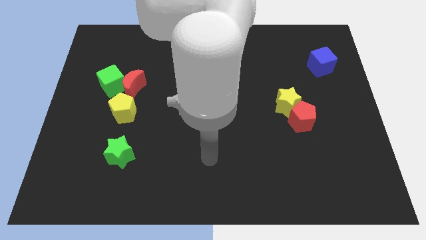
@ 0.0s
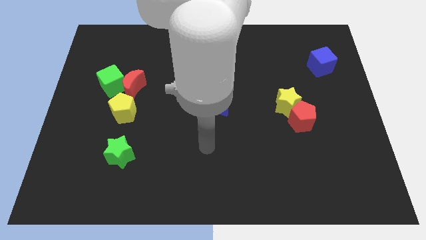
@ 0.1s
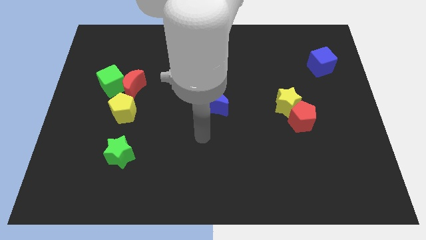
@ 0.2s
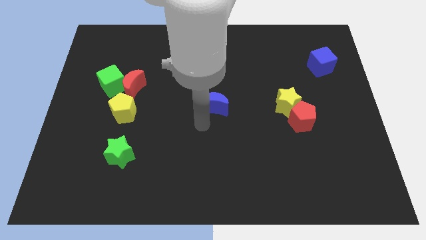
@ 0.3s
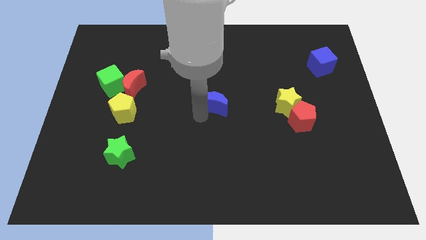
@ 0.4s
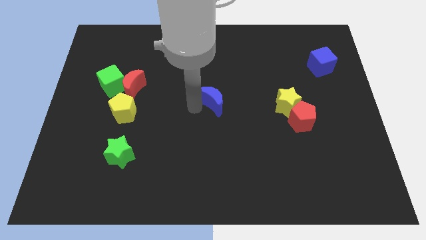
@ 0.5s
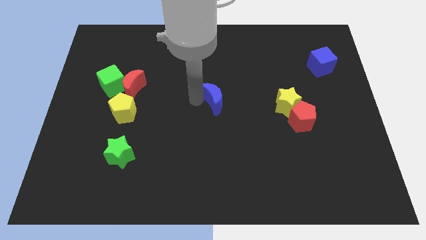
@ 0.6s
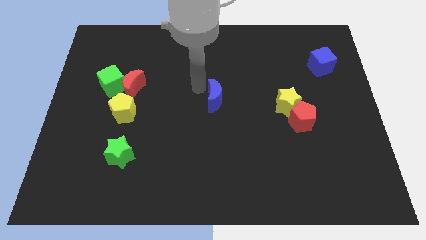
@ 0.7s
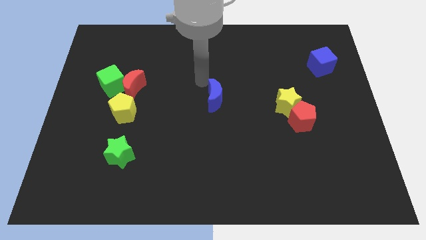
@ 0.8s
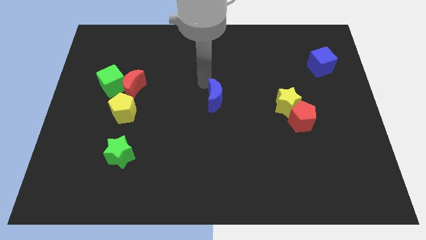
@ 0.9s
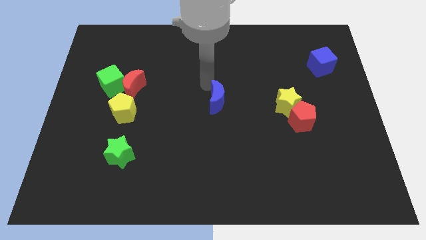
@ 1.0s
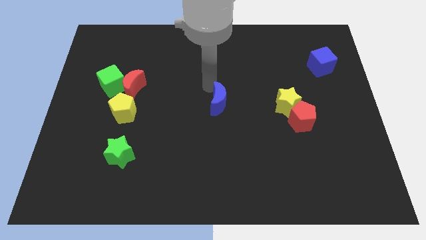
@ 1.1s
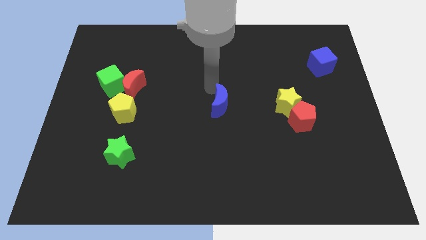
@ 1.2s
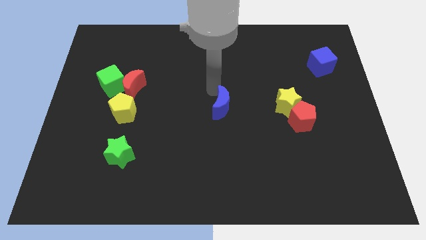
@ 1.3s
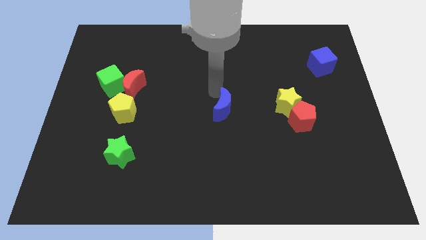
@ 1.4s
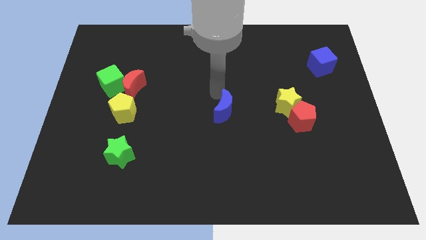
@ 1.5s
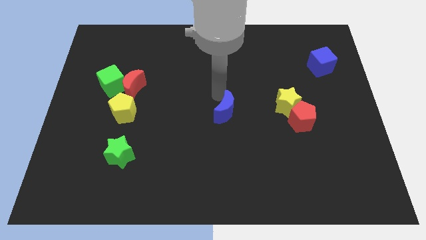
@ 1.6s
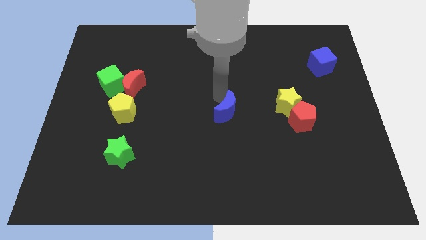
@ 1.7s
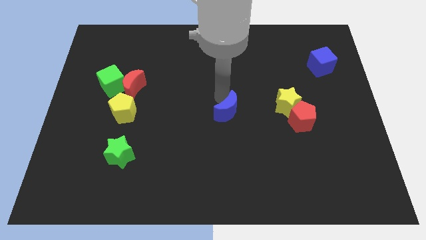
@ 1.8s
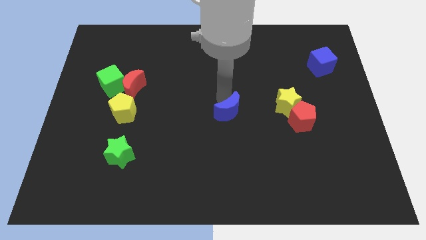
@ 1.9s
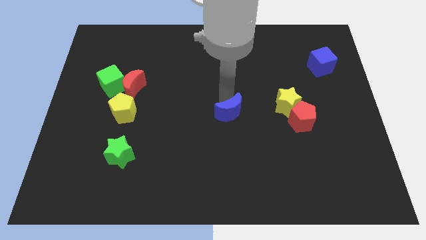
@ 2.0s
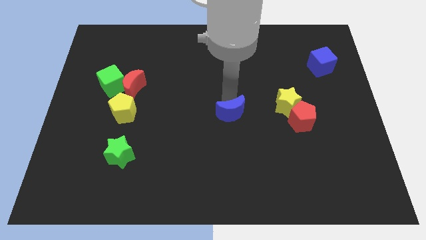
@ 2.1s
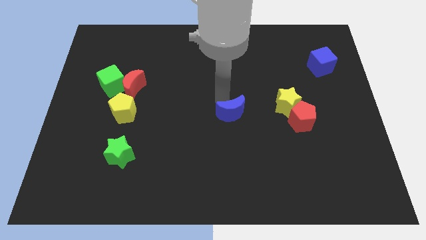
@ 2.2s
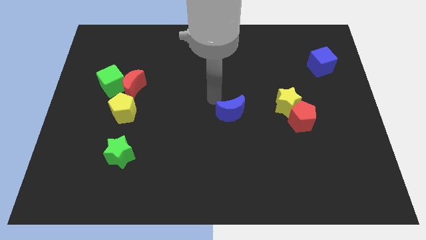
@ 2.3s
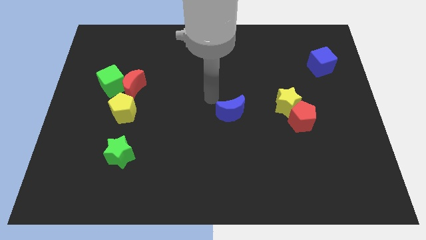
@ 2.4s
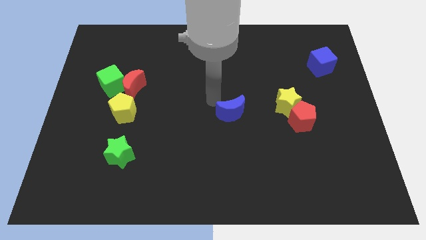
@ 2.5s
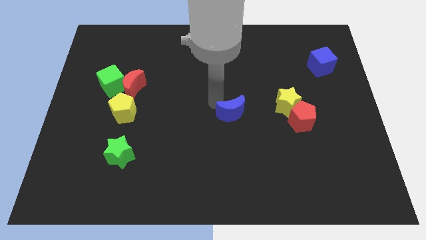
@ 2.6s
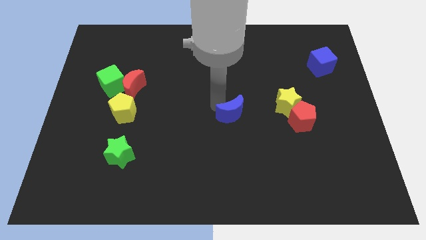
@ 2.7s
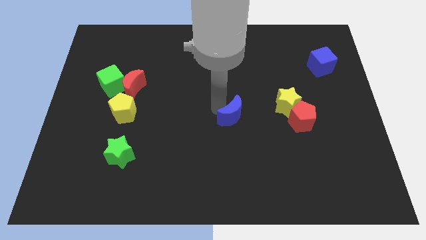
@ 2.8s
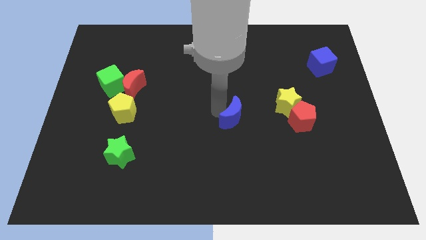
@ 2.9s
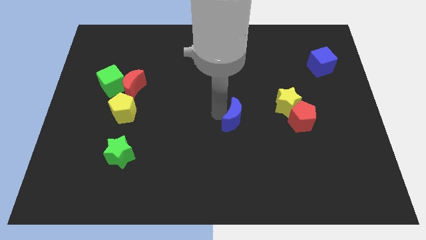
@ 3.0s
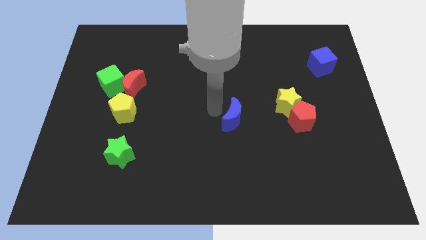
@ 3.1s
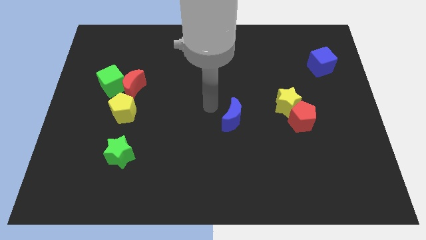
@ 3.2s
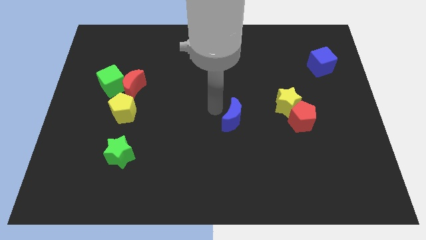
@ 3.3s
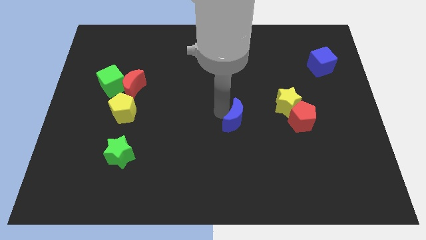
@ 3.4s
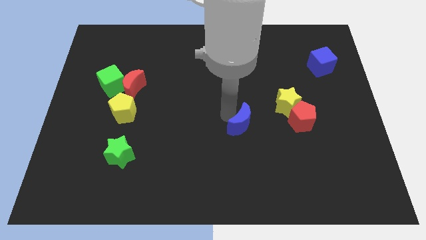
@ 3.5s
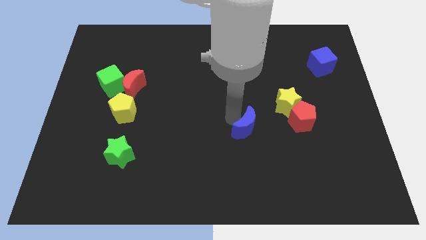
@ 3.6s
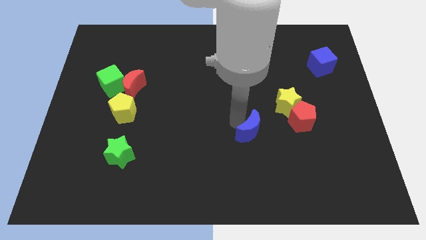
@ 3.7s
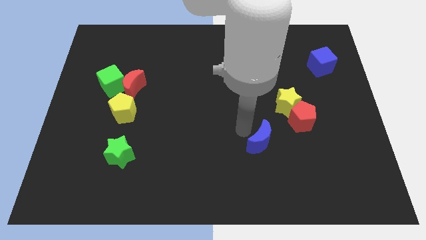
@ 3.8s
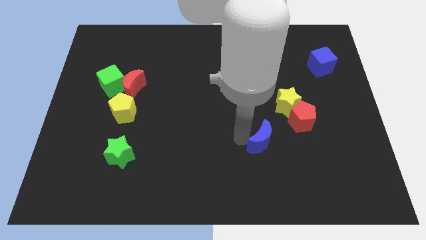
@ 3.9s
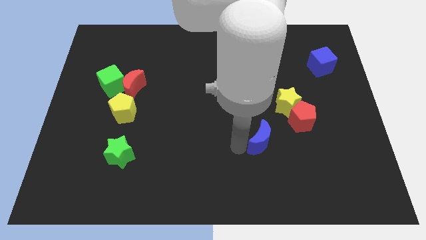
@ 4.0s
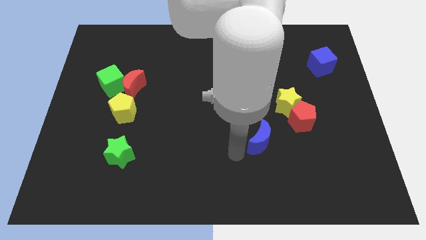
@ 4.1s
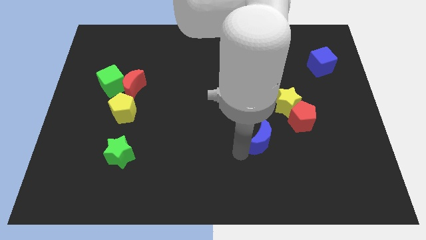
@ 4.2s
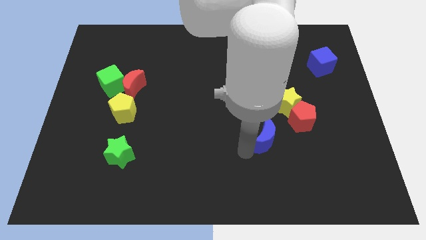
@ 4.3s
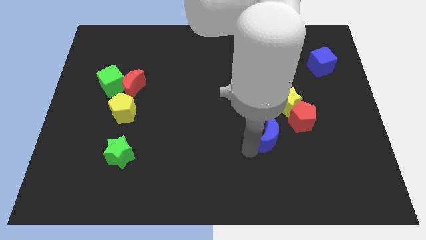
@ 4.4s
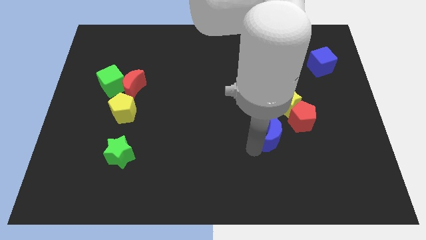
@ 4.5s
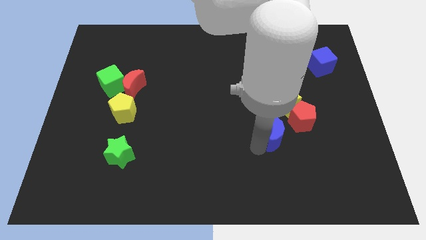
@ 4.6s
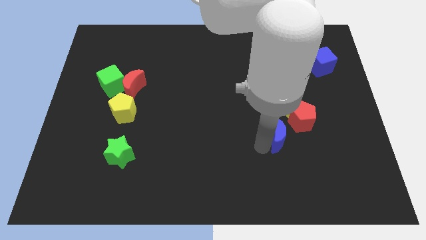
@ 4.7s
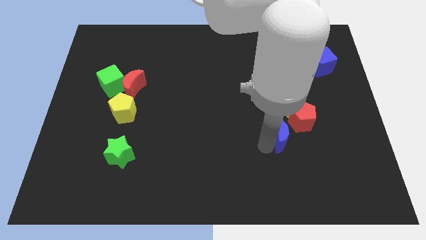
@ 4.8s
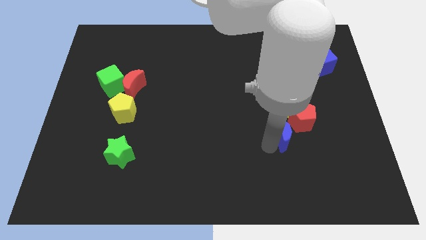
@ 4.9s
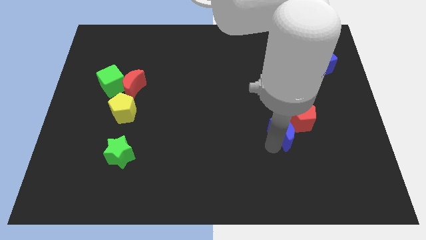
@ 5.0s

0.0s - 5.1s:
move the blue moon to the red pentagon

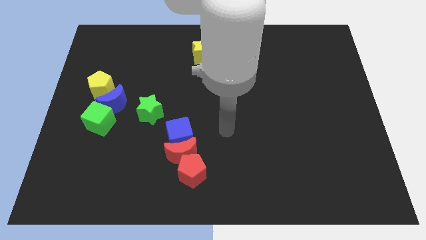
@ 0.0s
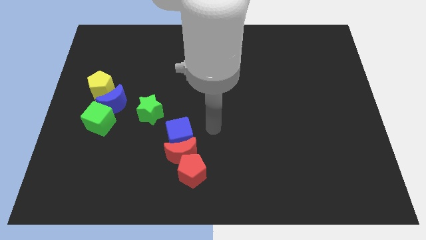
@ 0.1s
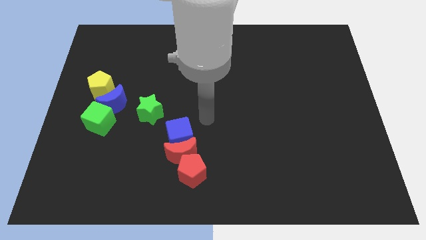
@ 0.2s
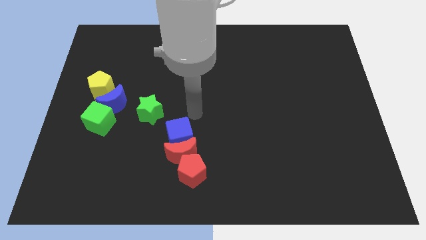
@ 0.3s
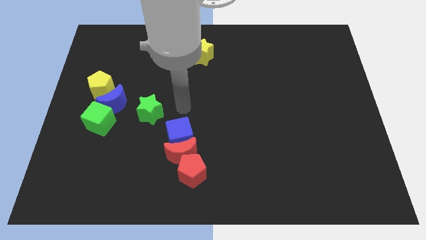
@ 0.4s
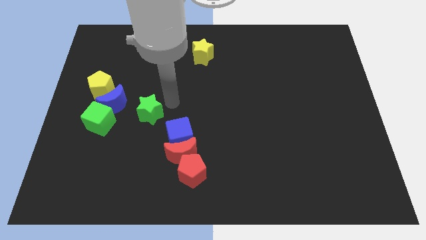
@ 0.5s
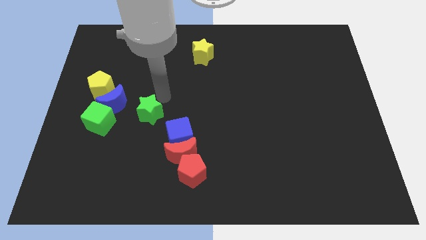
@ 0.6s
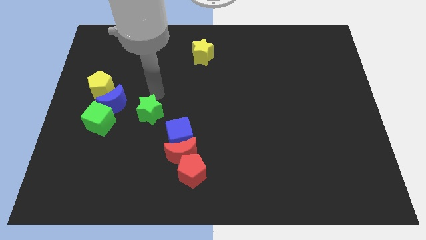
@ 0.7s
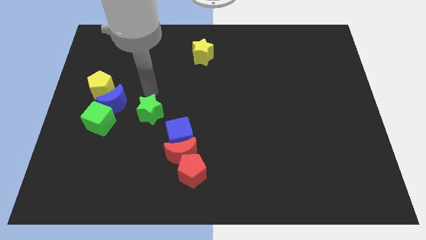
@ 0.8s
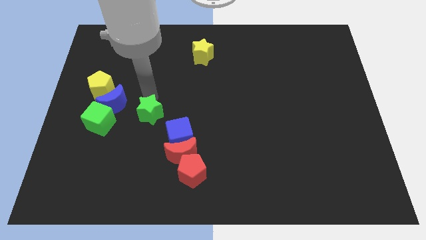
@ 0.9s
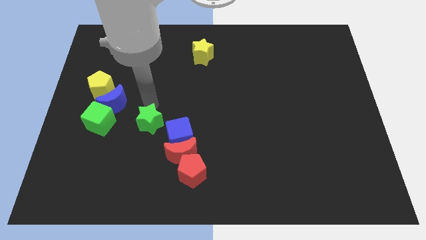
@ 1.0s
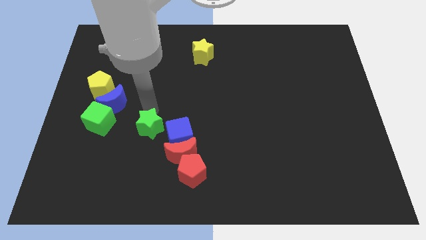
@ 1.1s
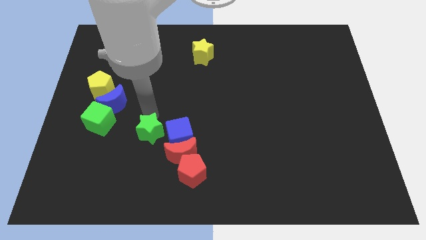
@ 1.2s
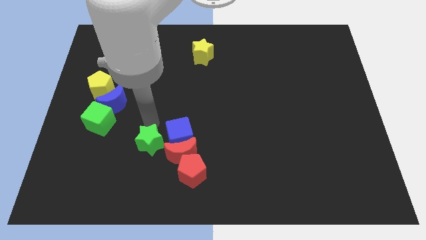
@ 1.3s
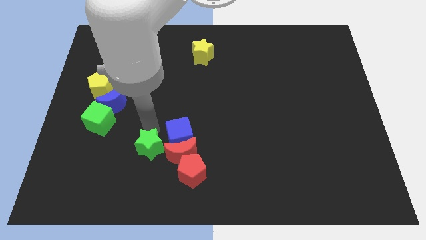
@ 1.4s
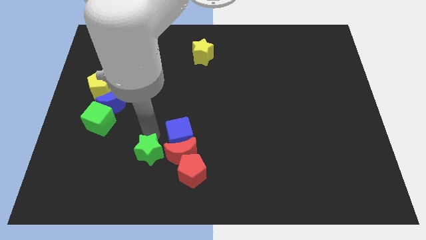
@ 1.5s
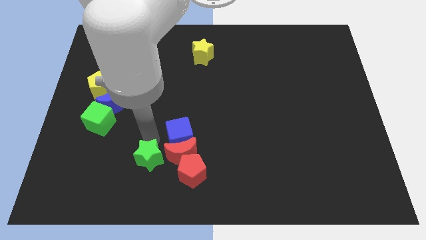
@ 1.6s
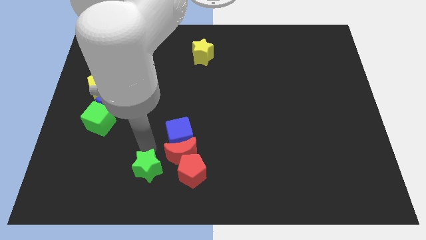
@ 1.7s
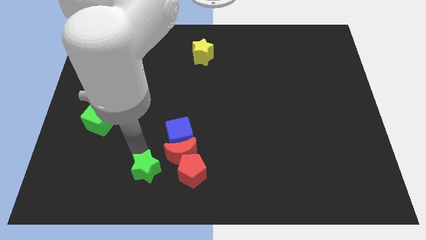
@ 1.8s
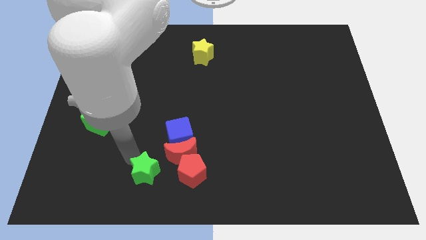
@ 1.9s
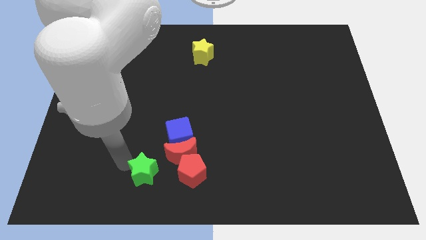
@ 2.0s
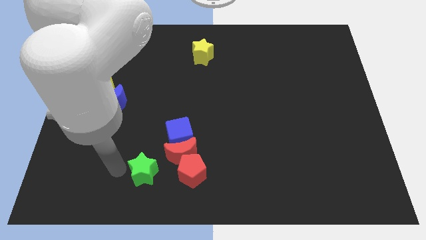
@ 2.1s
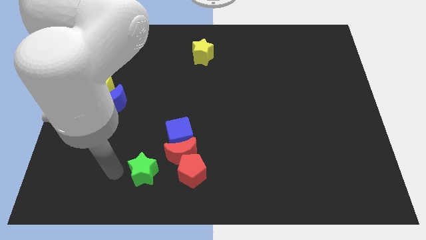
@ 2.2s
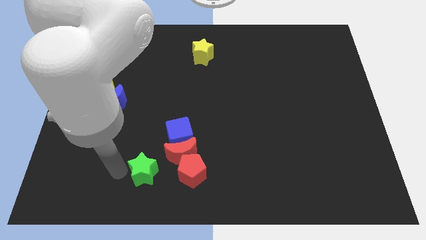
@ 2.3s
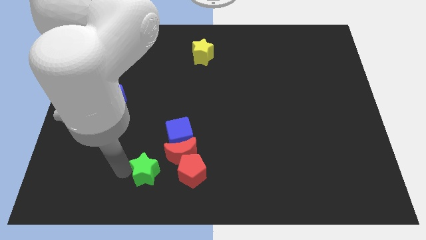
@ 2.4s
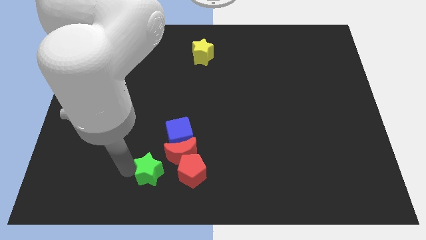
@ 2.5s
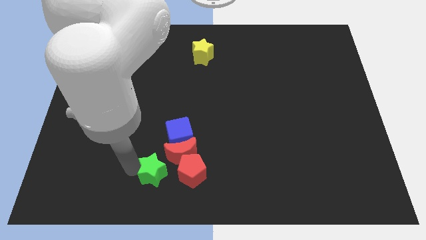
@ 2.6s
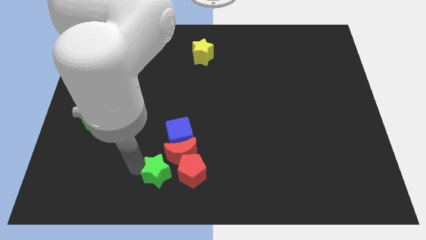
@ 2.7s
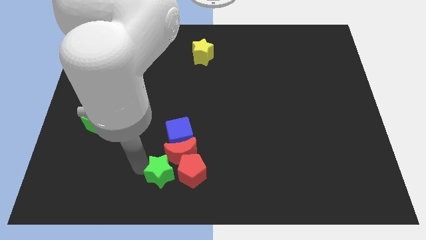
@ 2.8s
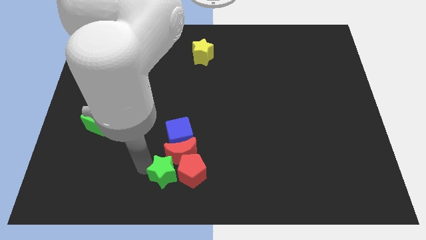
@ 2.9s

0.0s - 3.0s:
slide the green star to the red pentagon
